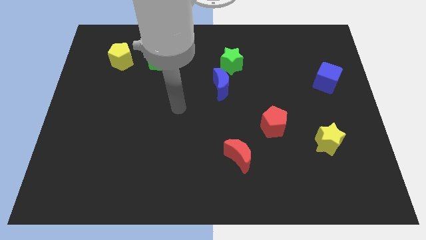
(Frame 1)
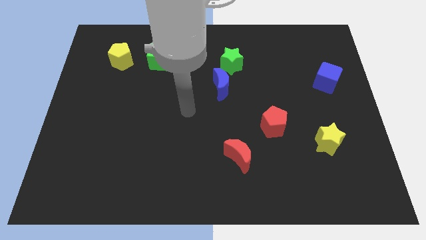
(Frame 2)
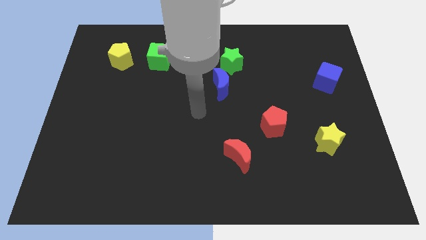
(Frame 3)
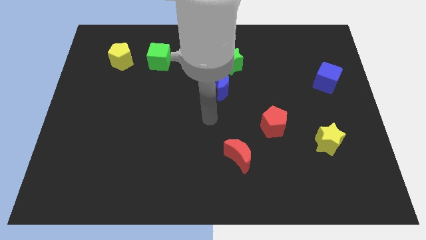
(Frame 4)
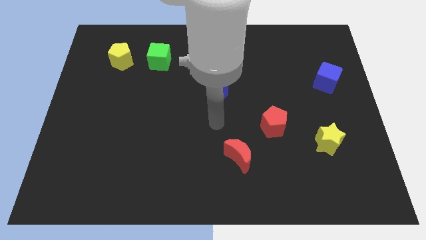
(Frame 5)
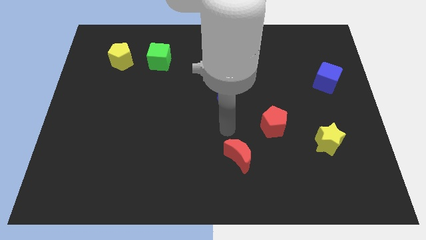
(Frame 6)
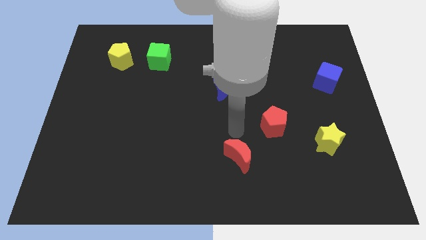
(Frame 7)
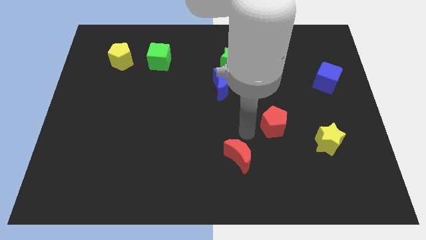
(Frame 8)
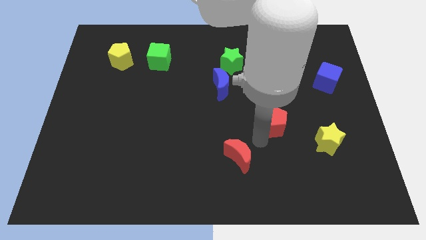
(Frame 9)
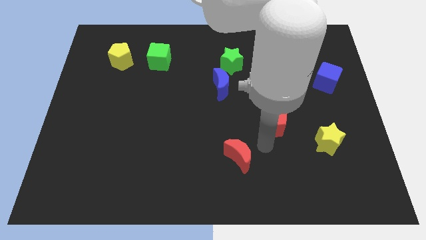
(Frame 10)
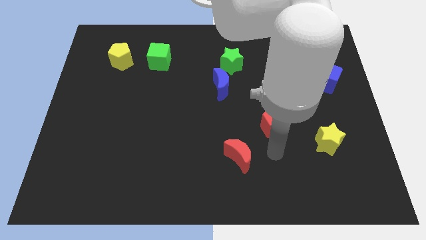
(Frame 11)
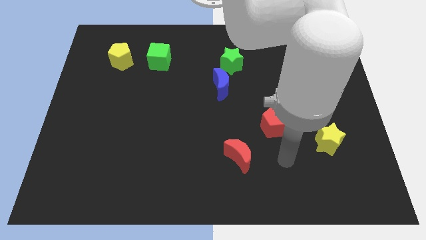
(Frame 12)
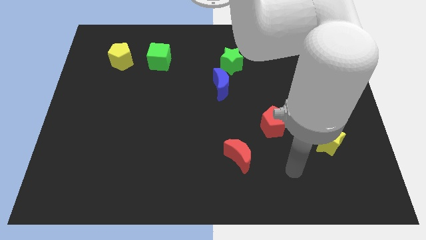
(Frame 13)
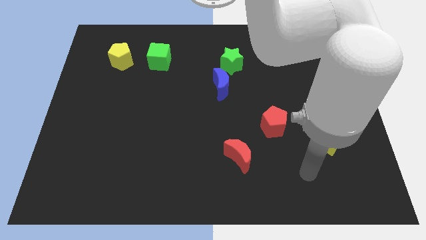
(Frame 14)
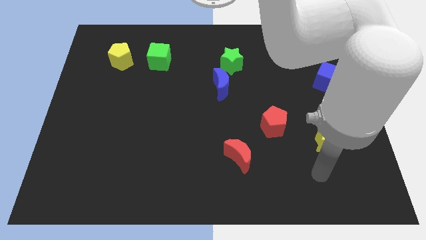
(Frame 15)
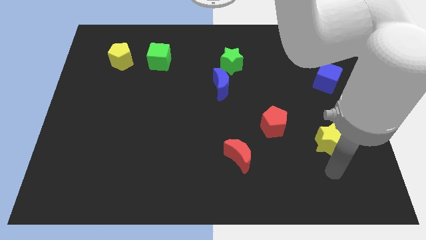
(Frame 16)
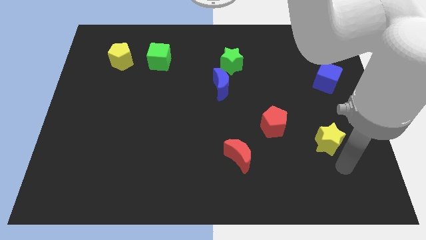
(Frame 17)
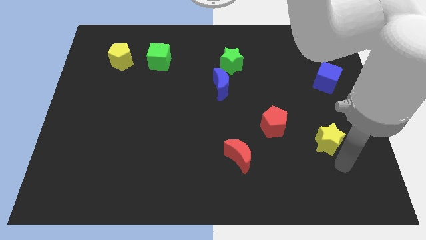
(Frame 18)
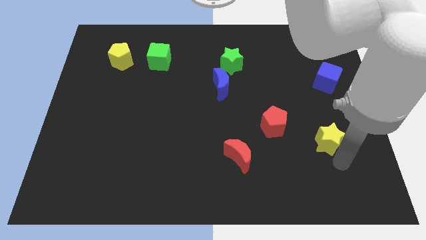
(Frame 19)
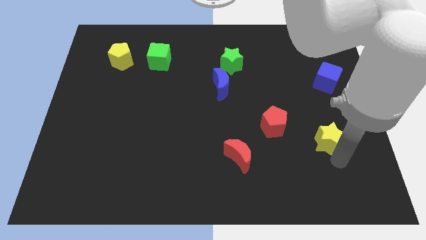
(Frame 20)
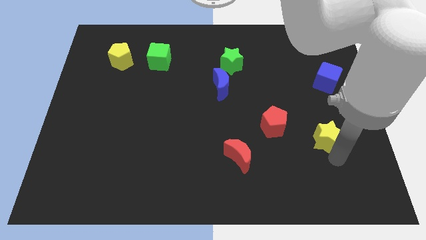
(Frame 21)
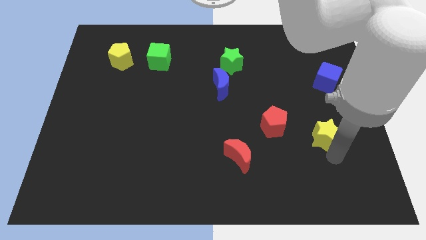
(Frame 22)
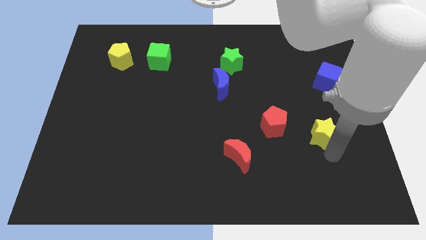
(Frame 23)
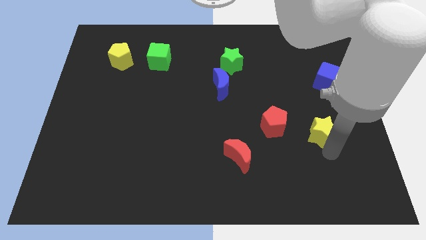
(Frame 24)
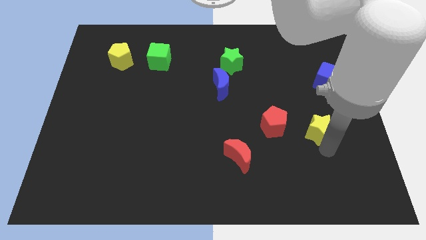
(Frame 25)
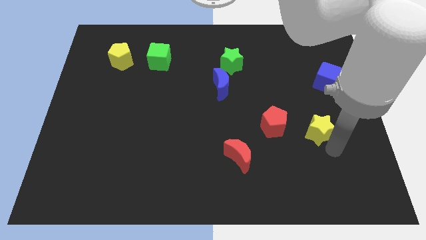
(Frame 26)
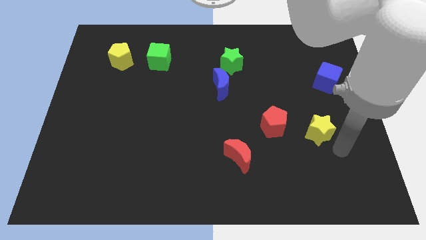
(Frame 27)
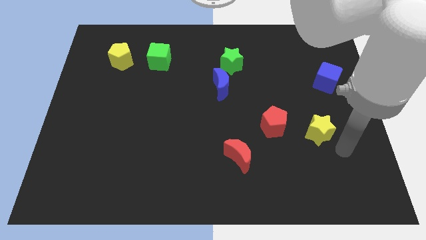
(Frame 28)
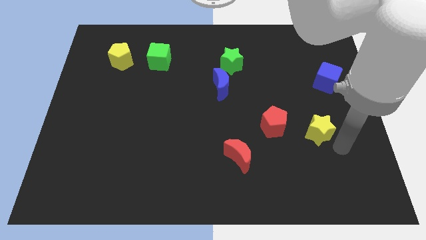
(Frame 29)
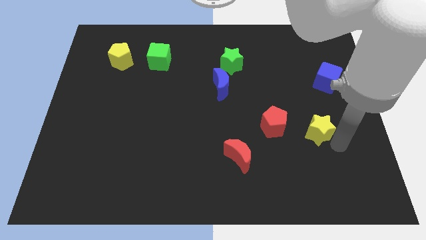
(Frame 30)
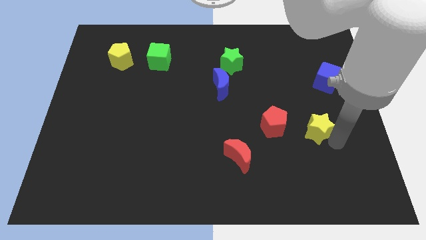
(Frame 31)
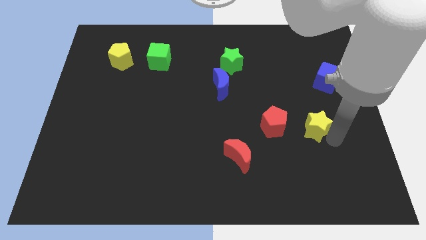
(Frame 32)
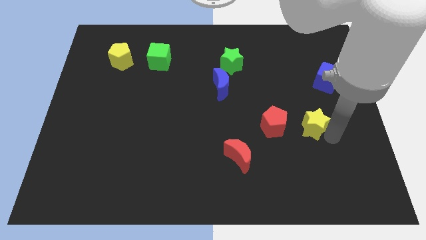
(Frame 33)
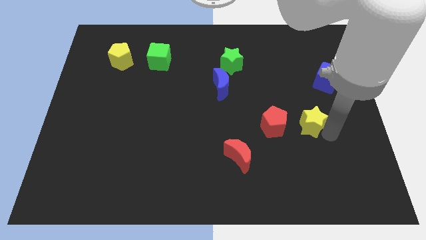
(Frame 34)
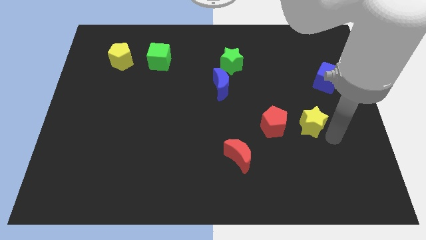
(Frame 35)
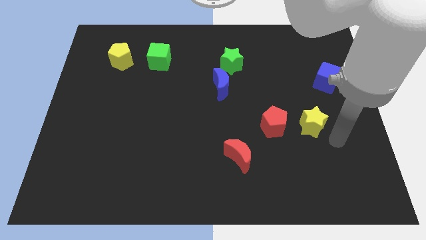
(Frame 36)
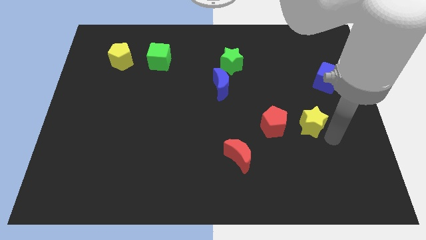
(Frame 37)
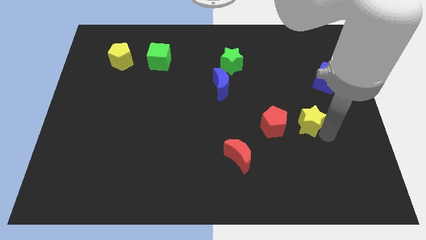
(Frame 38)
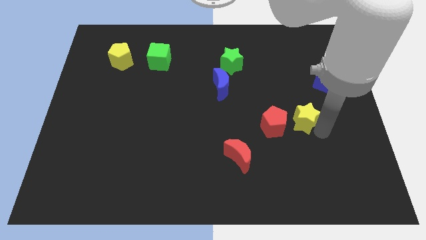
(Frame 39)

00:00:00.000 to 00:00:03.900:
slightly slide the yellow star diagonally up and to the left

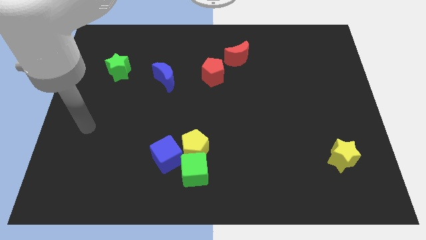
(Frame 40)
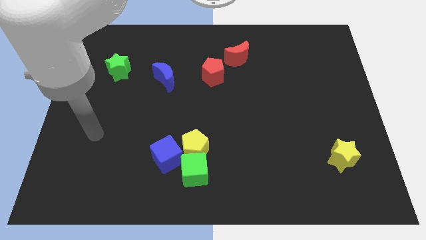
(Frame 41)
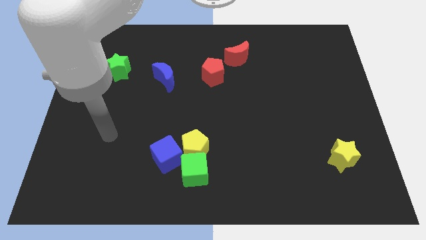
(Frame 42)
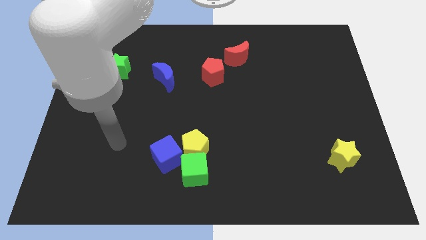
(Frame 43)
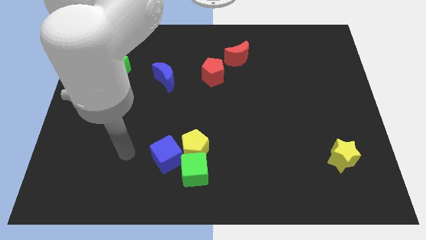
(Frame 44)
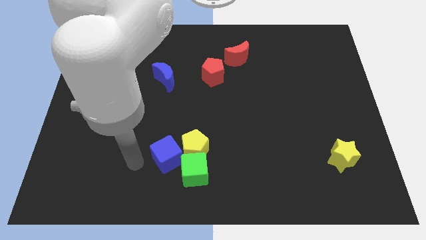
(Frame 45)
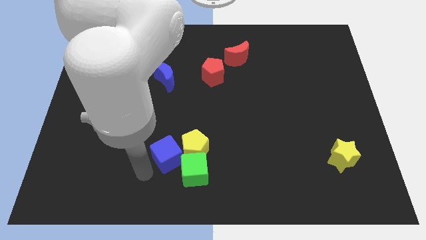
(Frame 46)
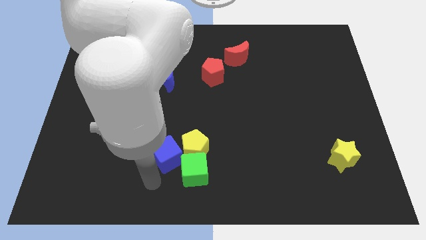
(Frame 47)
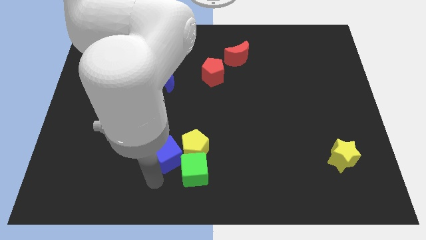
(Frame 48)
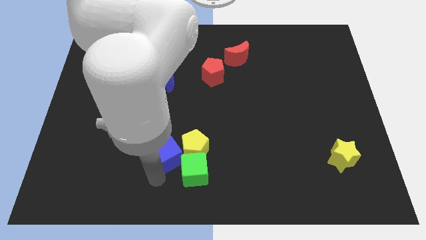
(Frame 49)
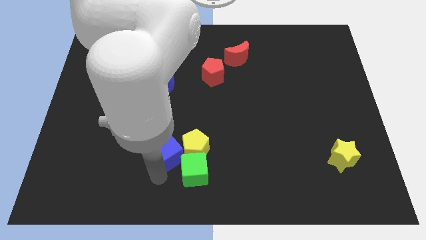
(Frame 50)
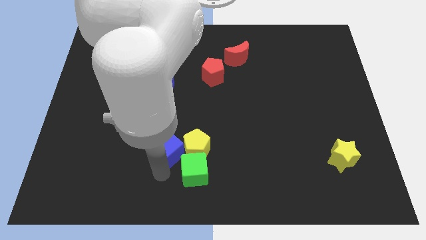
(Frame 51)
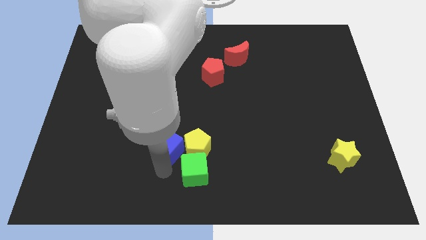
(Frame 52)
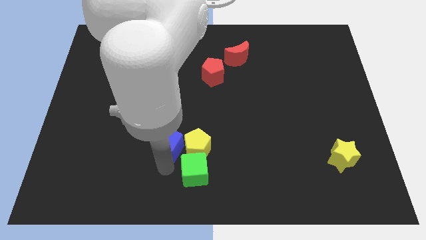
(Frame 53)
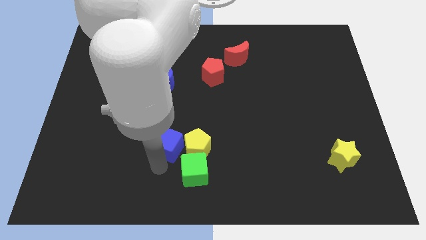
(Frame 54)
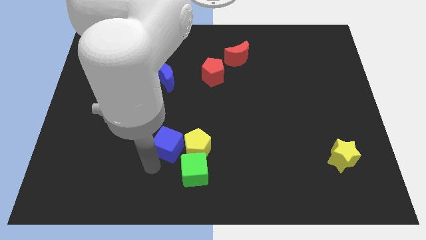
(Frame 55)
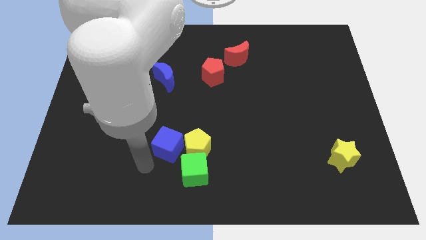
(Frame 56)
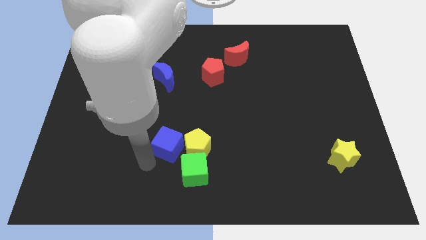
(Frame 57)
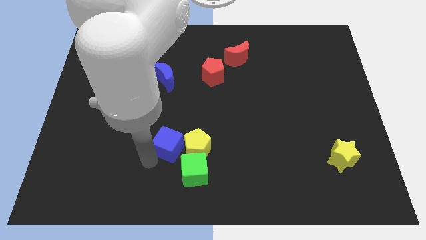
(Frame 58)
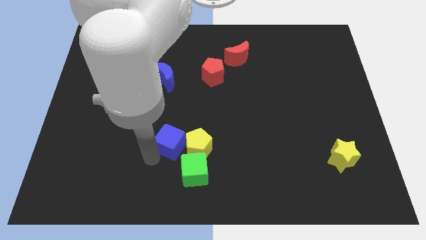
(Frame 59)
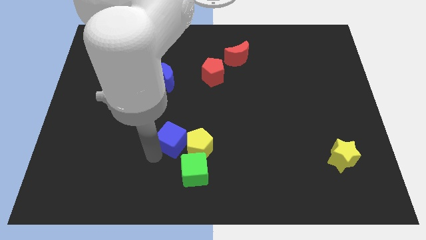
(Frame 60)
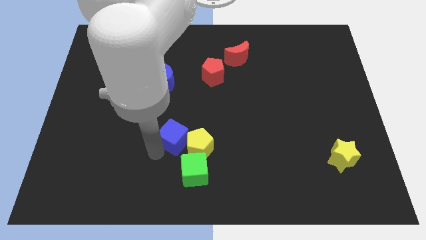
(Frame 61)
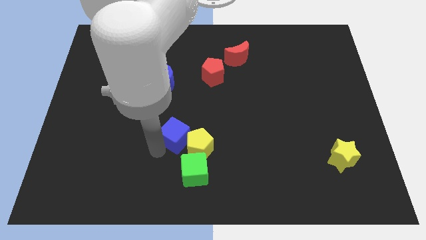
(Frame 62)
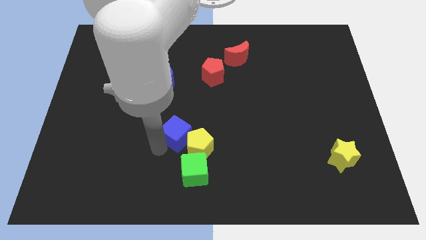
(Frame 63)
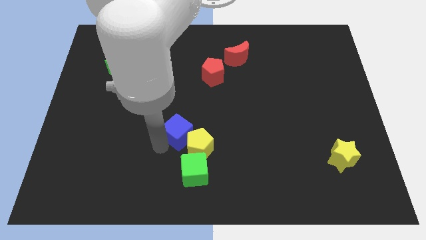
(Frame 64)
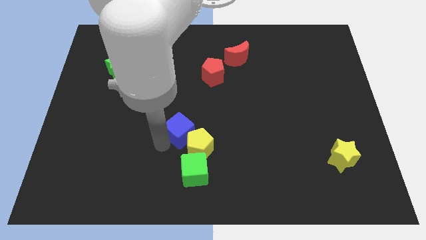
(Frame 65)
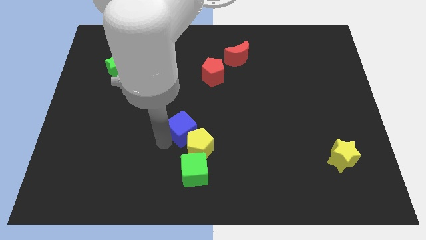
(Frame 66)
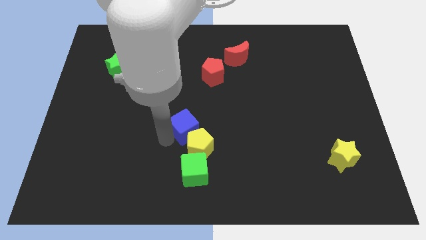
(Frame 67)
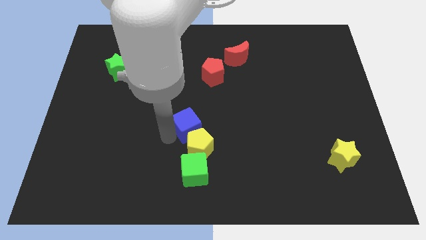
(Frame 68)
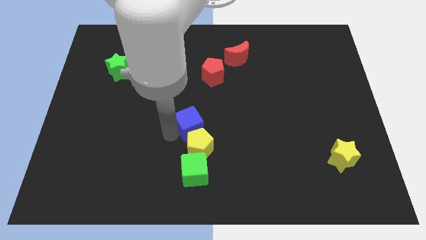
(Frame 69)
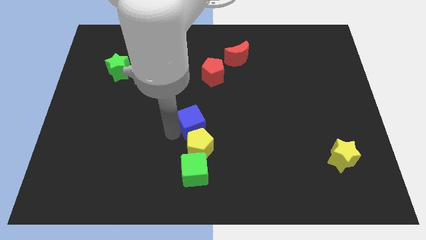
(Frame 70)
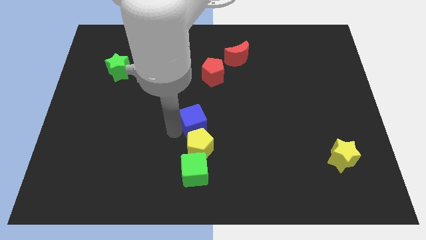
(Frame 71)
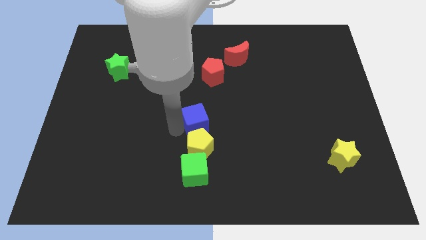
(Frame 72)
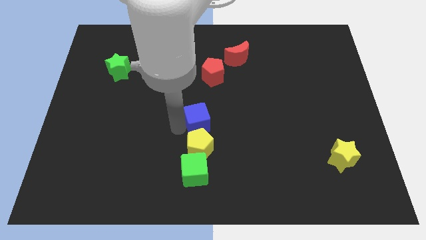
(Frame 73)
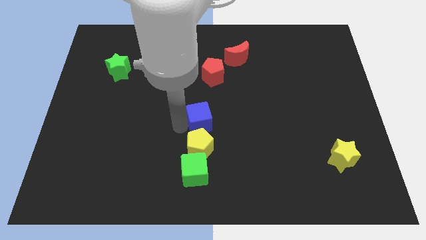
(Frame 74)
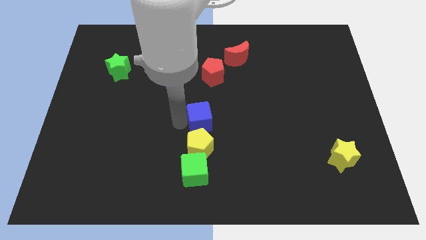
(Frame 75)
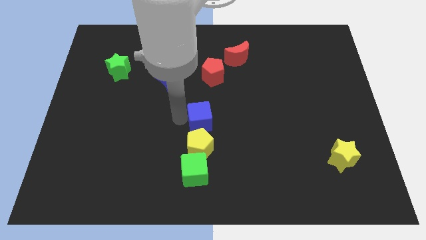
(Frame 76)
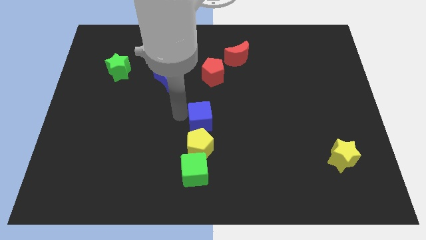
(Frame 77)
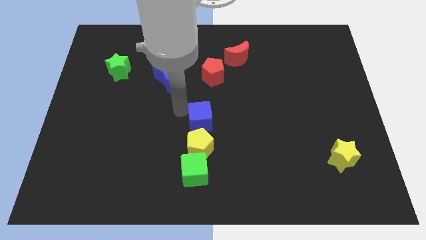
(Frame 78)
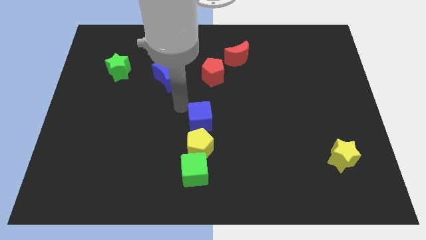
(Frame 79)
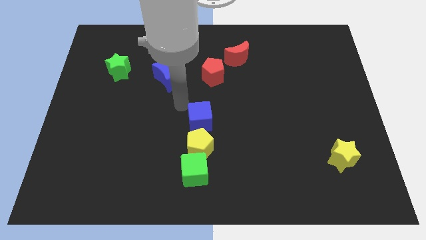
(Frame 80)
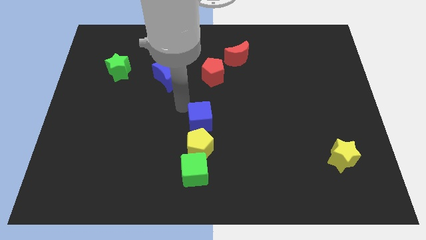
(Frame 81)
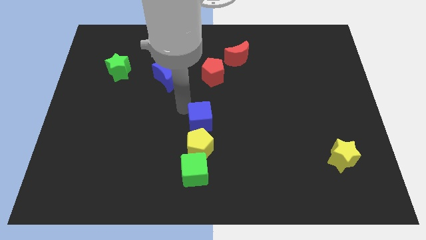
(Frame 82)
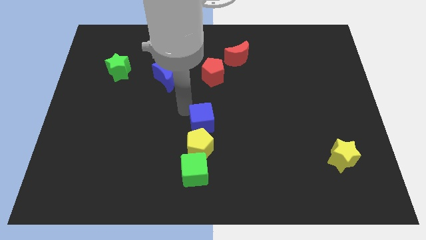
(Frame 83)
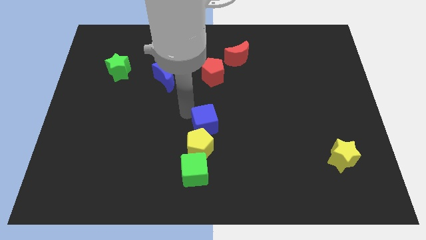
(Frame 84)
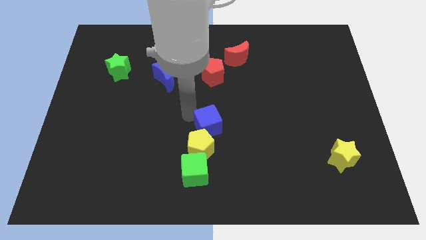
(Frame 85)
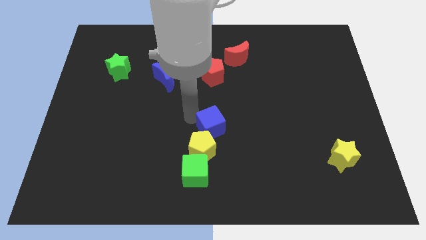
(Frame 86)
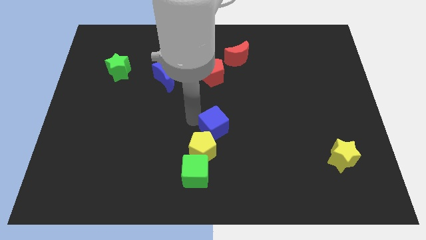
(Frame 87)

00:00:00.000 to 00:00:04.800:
move the blue cube right slightly
